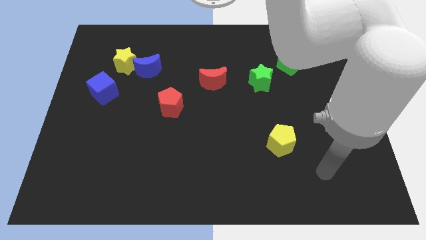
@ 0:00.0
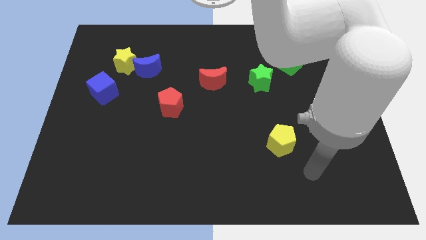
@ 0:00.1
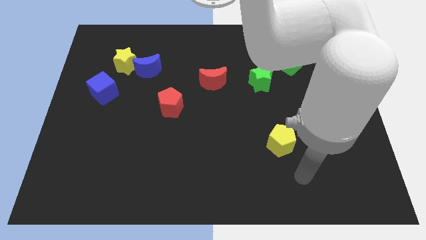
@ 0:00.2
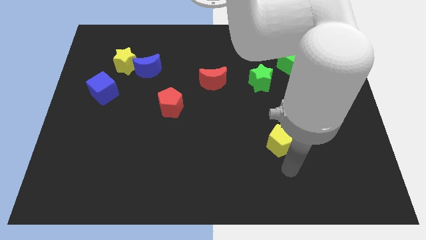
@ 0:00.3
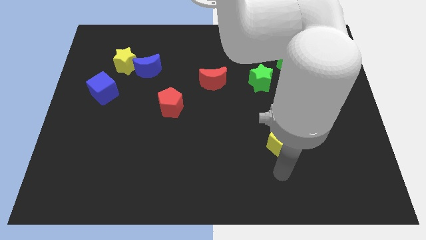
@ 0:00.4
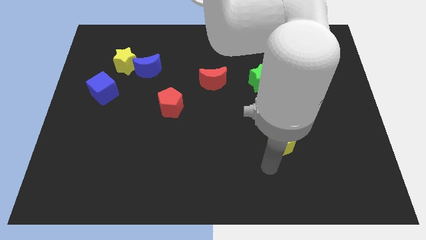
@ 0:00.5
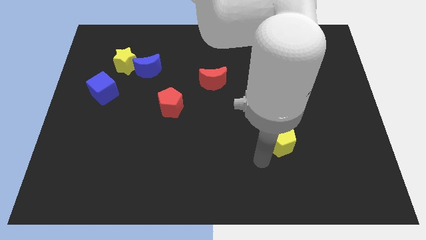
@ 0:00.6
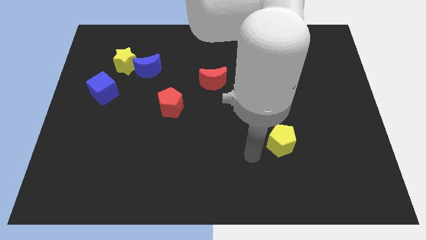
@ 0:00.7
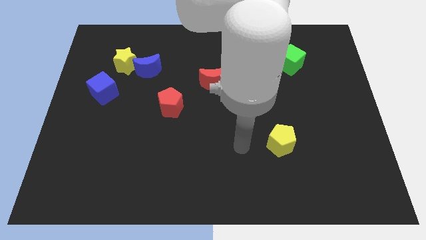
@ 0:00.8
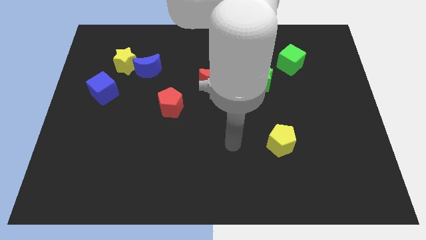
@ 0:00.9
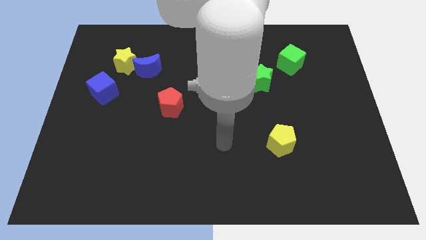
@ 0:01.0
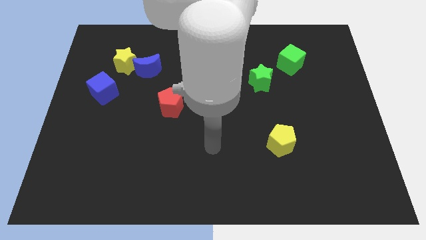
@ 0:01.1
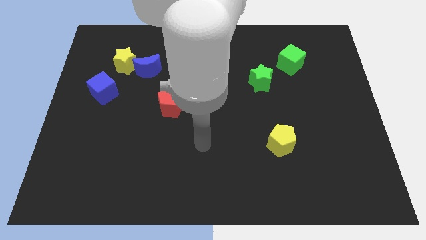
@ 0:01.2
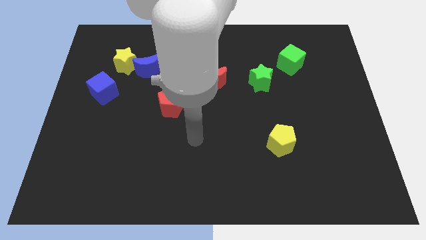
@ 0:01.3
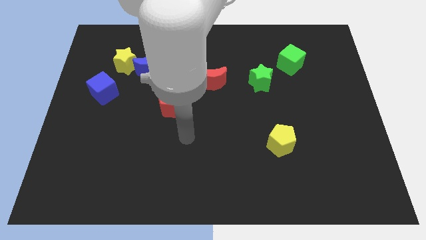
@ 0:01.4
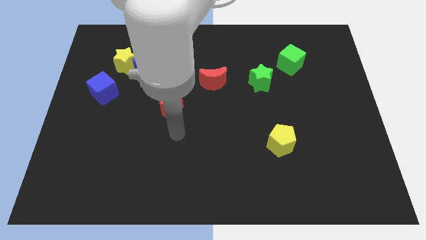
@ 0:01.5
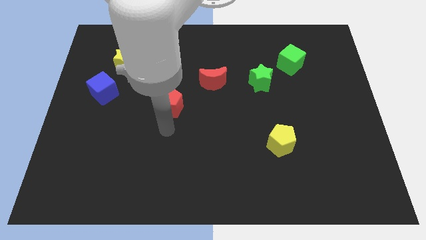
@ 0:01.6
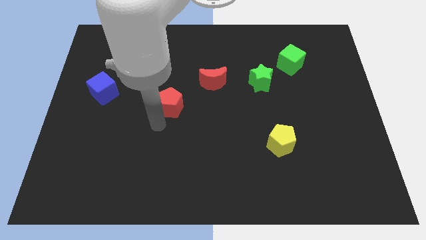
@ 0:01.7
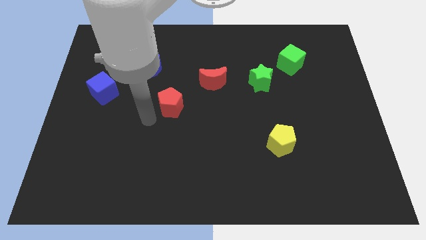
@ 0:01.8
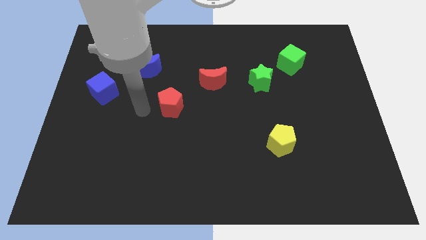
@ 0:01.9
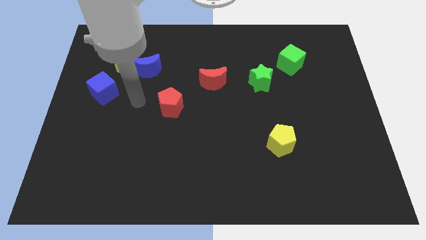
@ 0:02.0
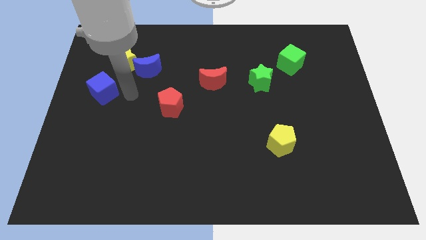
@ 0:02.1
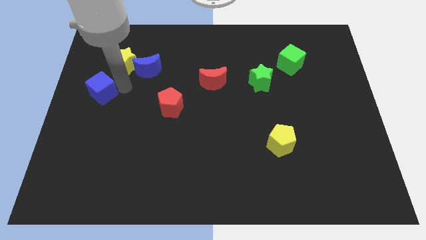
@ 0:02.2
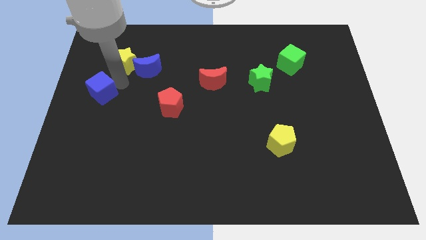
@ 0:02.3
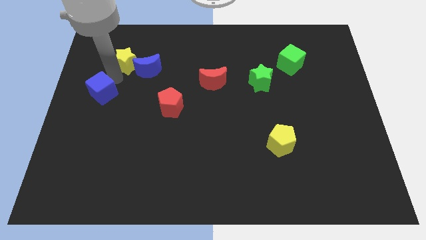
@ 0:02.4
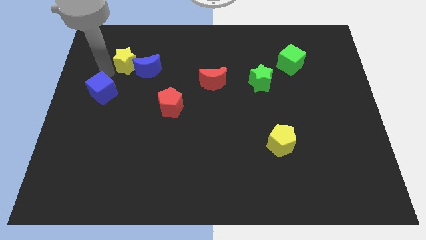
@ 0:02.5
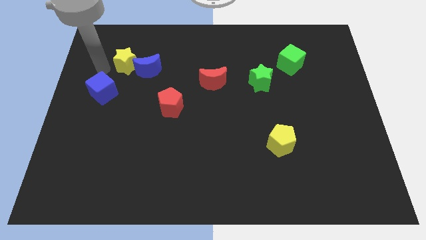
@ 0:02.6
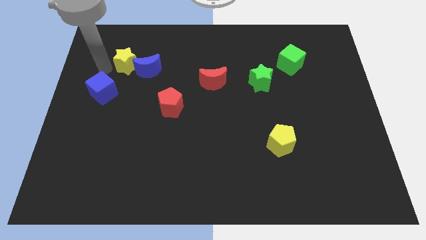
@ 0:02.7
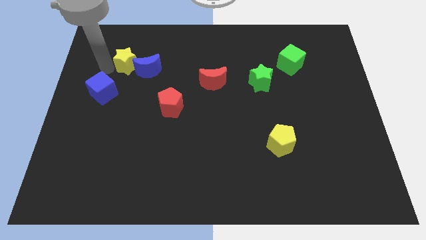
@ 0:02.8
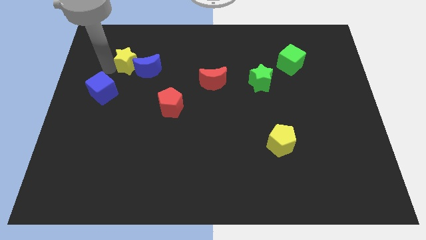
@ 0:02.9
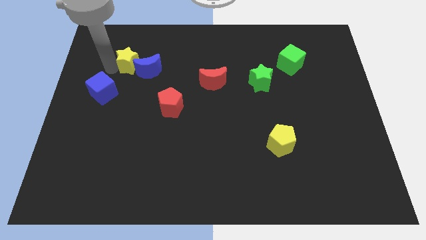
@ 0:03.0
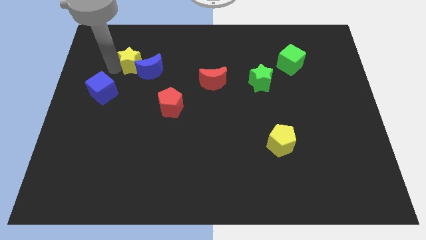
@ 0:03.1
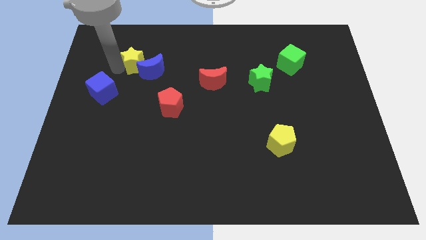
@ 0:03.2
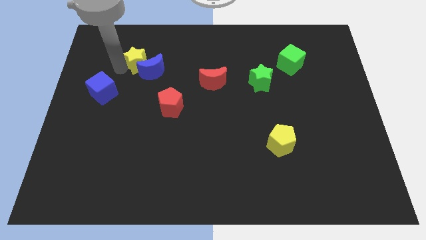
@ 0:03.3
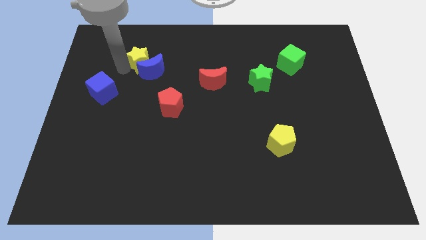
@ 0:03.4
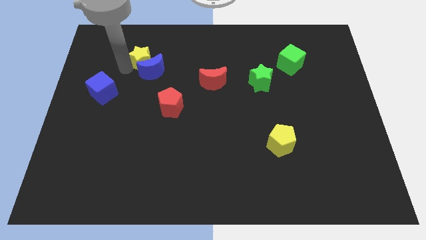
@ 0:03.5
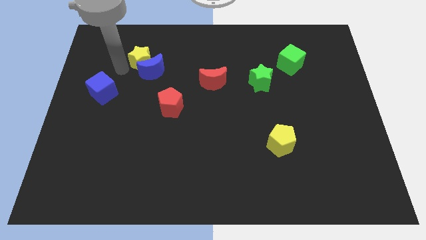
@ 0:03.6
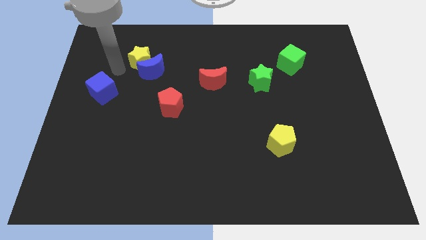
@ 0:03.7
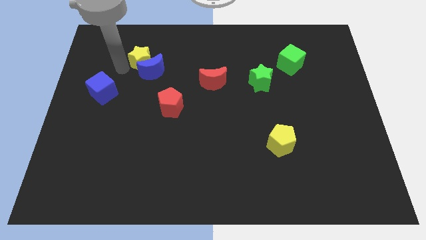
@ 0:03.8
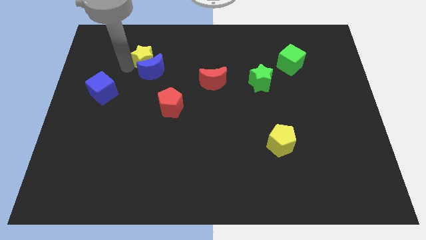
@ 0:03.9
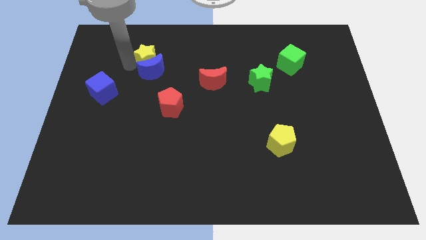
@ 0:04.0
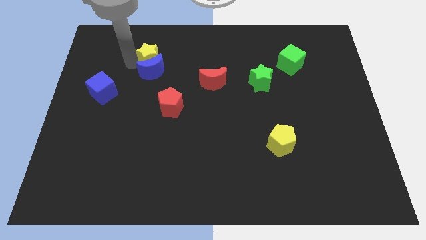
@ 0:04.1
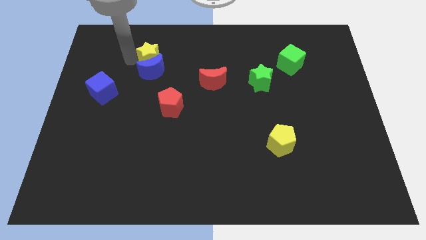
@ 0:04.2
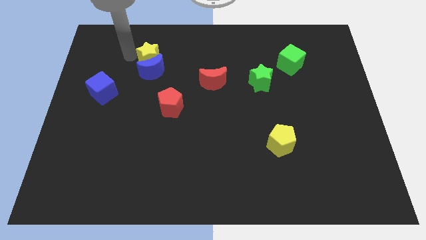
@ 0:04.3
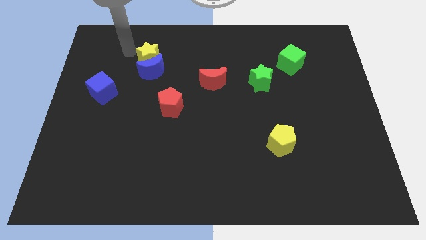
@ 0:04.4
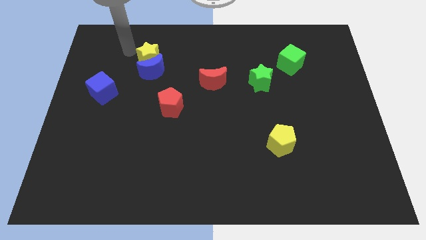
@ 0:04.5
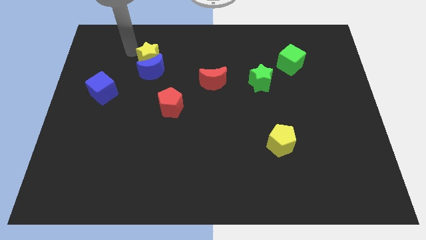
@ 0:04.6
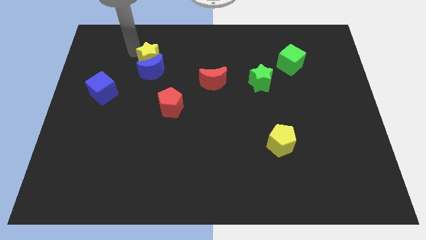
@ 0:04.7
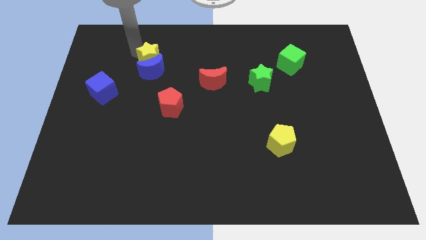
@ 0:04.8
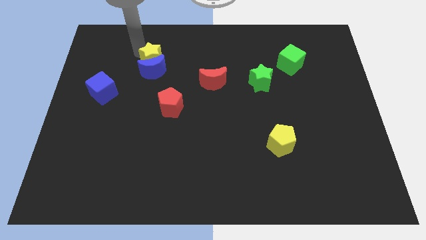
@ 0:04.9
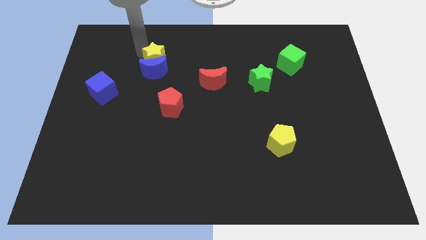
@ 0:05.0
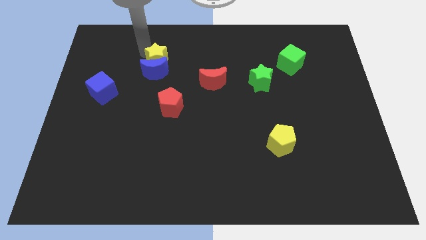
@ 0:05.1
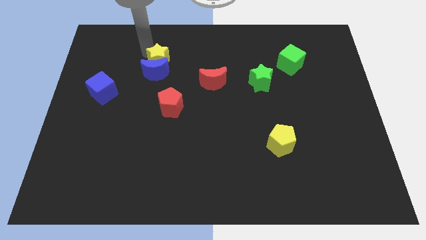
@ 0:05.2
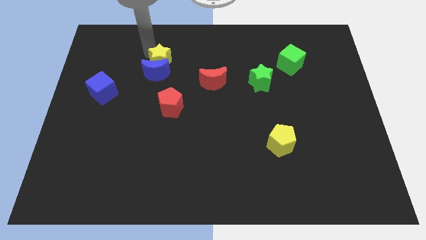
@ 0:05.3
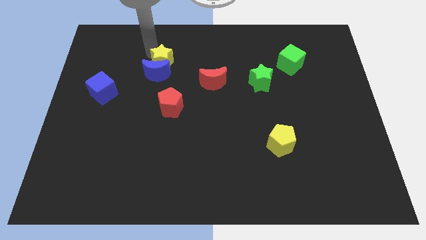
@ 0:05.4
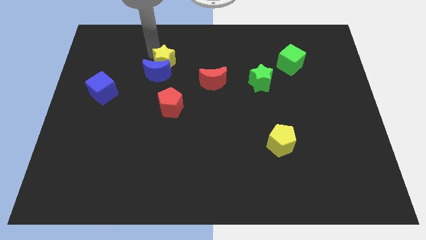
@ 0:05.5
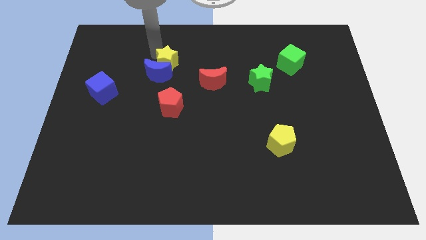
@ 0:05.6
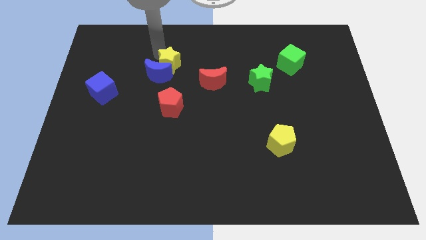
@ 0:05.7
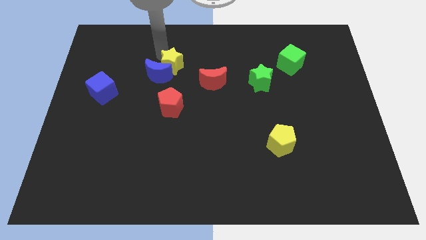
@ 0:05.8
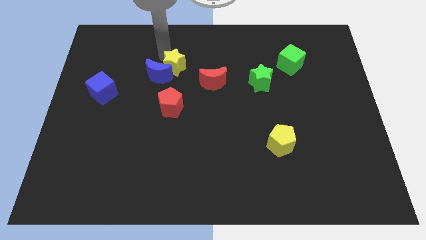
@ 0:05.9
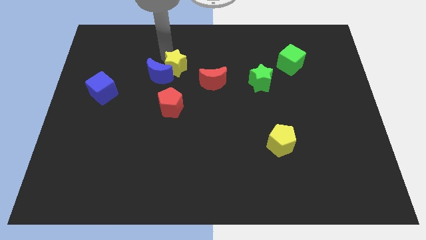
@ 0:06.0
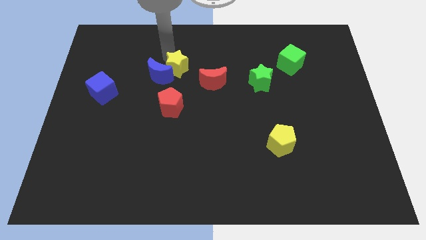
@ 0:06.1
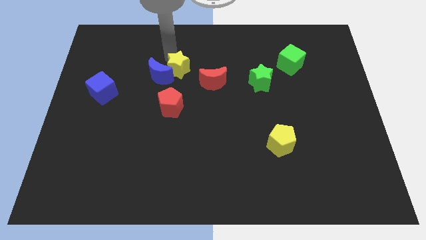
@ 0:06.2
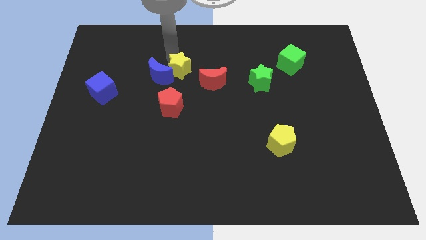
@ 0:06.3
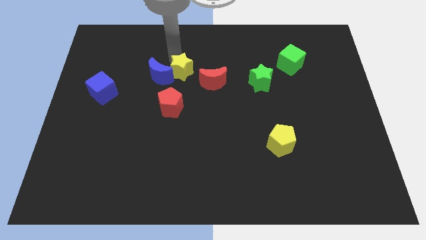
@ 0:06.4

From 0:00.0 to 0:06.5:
put the yellow star to the center of the board
